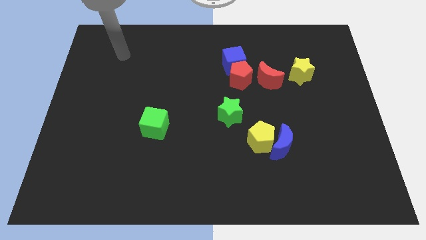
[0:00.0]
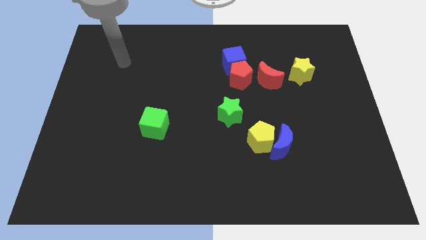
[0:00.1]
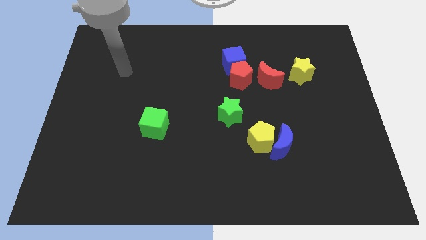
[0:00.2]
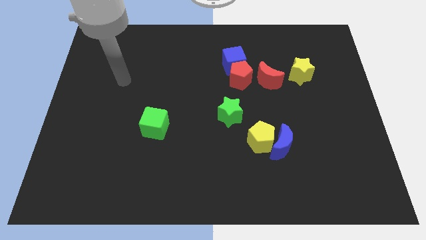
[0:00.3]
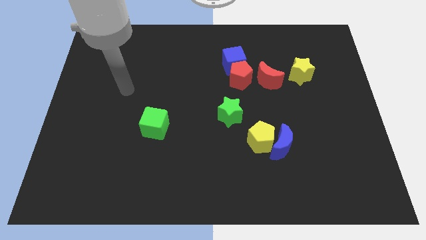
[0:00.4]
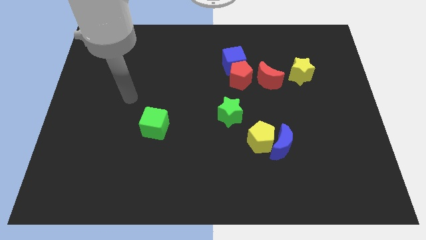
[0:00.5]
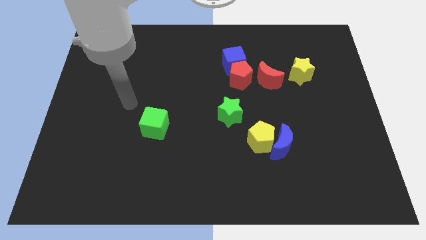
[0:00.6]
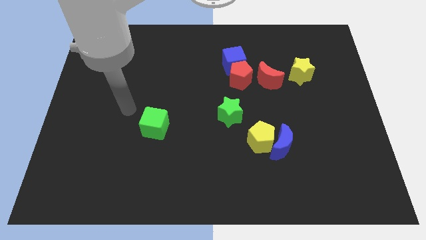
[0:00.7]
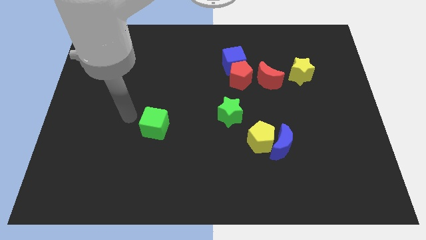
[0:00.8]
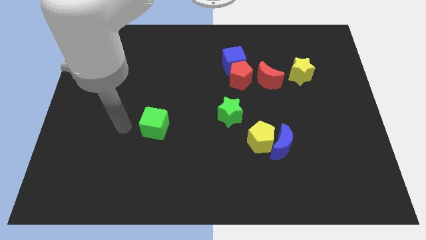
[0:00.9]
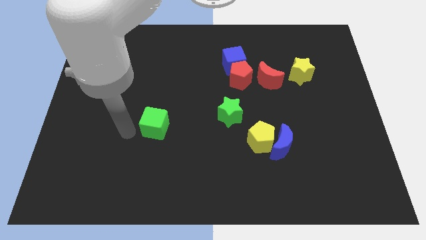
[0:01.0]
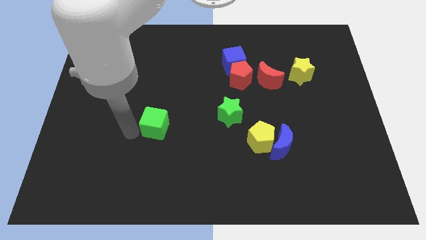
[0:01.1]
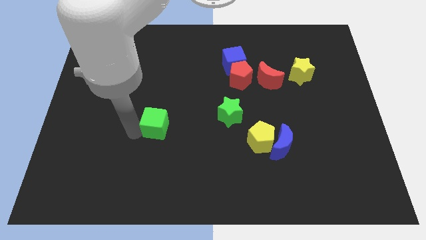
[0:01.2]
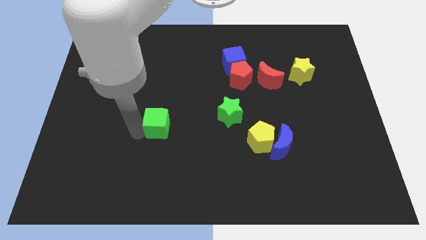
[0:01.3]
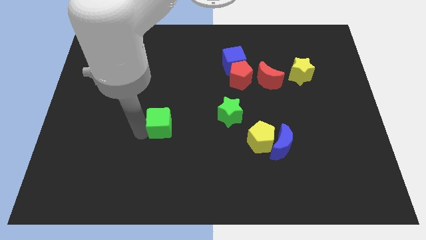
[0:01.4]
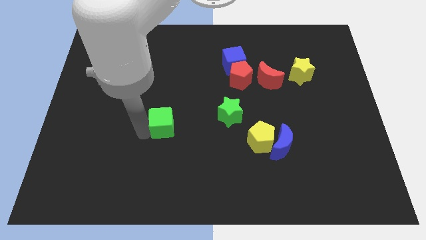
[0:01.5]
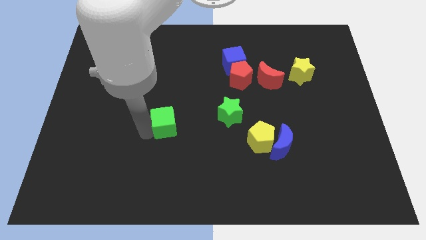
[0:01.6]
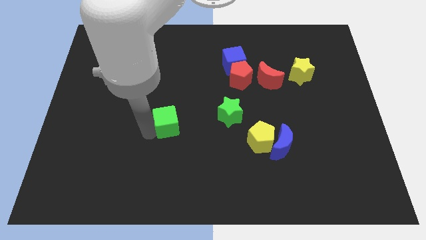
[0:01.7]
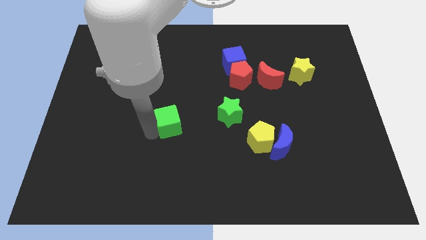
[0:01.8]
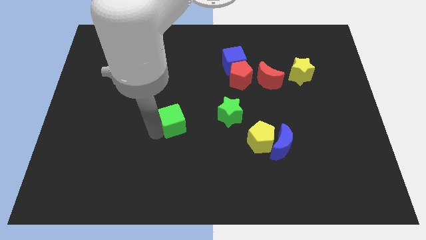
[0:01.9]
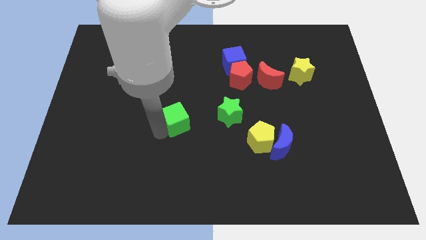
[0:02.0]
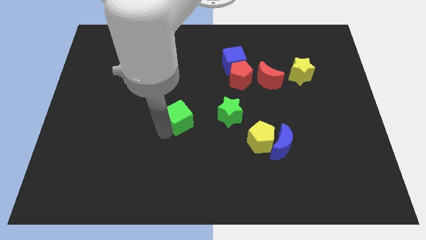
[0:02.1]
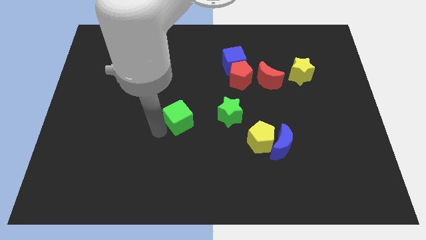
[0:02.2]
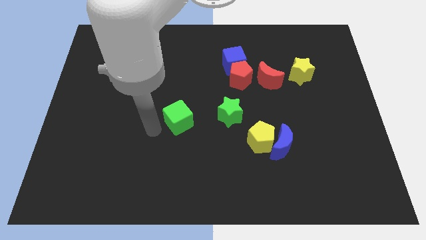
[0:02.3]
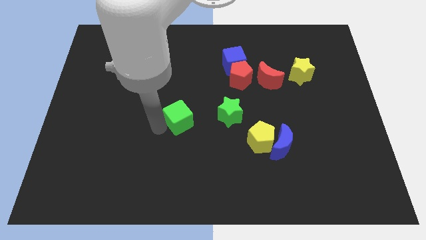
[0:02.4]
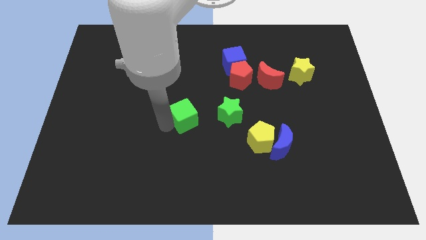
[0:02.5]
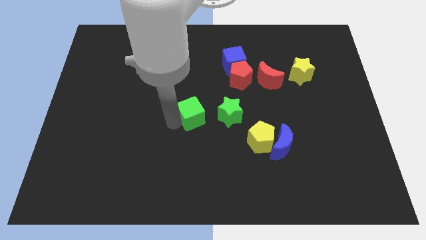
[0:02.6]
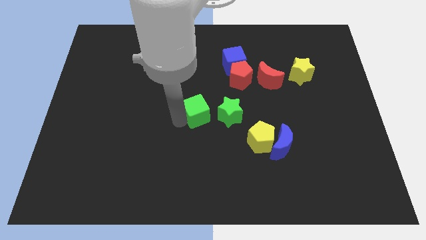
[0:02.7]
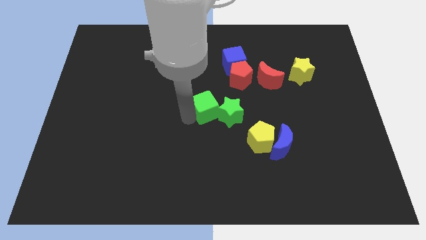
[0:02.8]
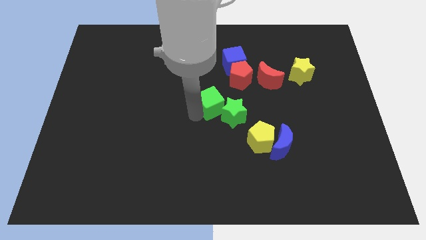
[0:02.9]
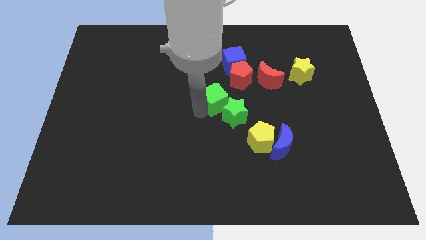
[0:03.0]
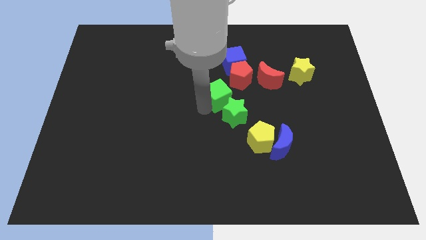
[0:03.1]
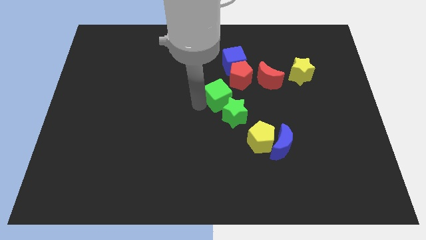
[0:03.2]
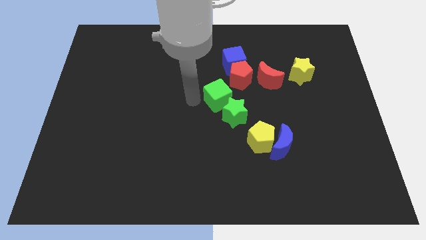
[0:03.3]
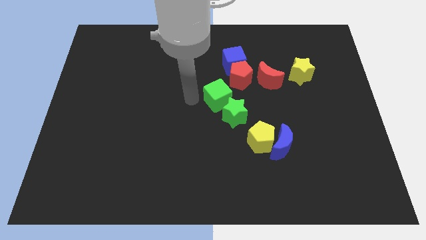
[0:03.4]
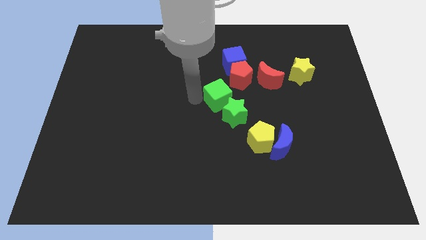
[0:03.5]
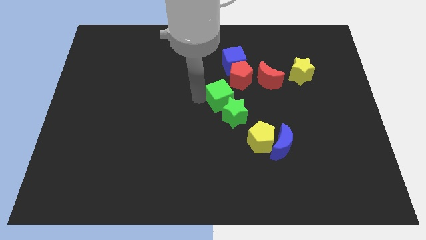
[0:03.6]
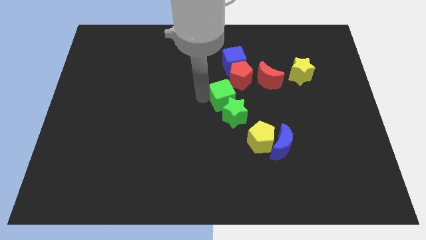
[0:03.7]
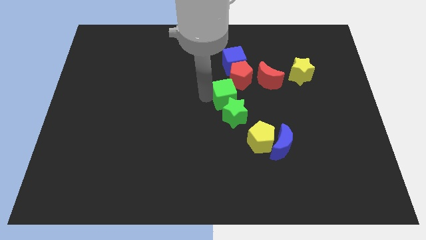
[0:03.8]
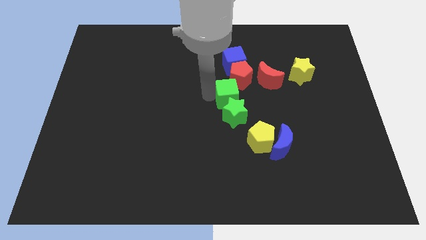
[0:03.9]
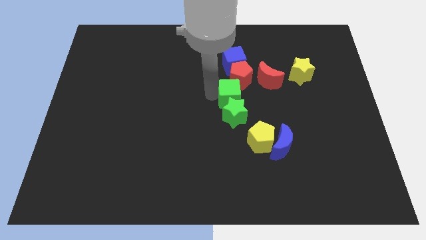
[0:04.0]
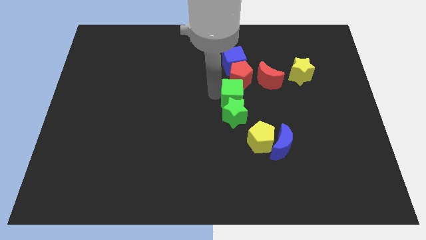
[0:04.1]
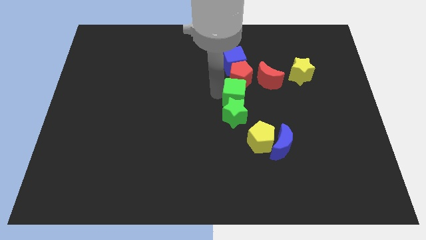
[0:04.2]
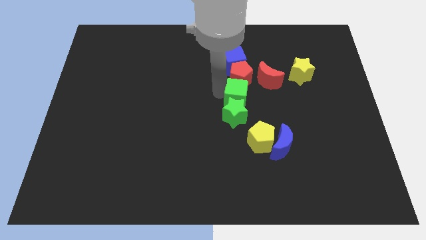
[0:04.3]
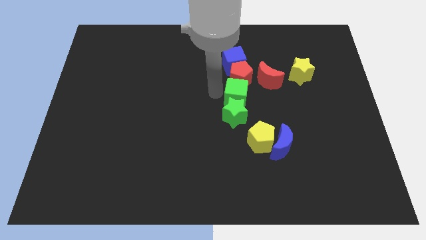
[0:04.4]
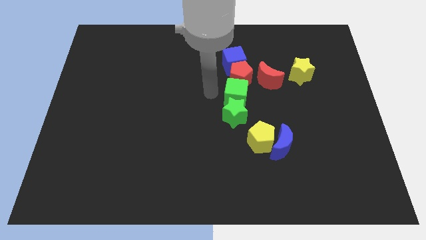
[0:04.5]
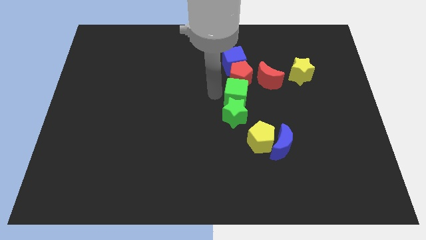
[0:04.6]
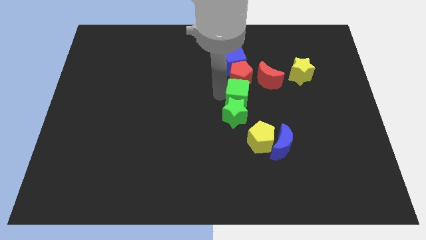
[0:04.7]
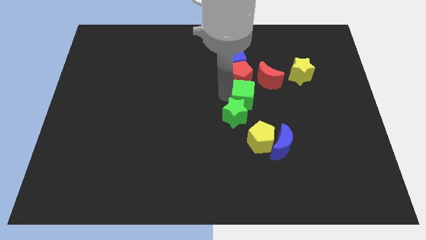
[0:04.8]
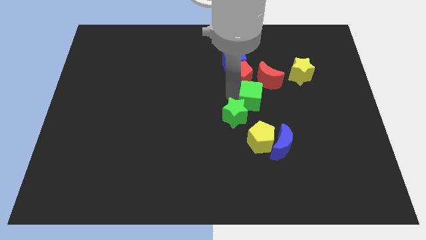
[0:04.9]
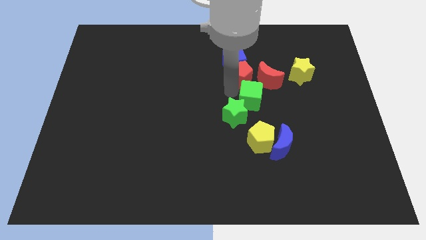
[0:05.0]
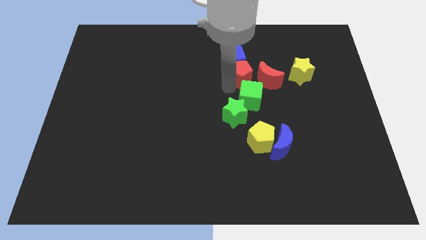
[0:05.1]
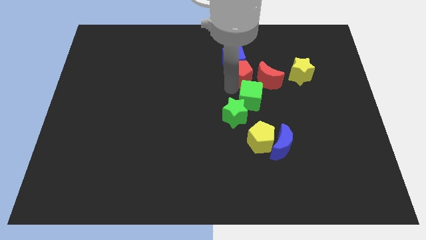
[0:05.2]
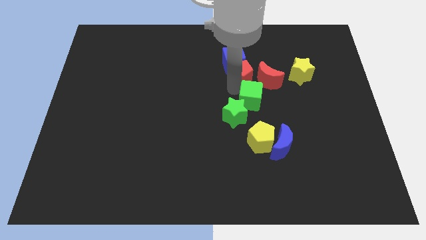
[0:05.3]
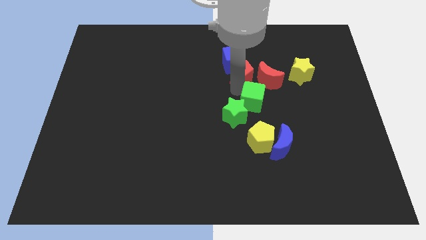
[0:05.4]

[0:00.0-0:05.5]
push the green cube right

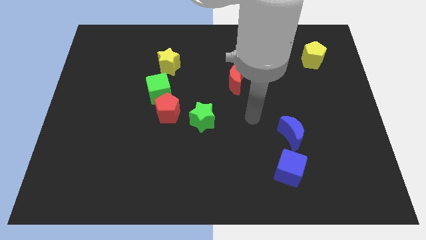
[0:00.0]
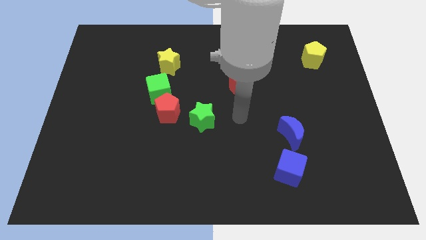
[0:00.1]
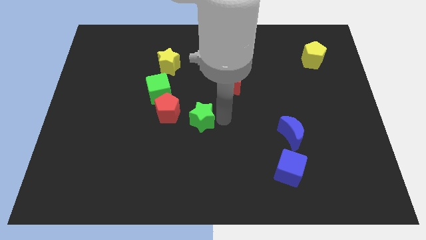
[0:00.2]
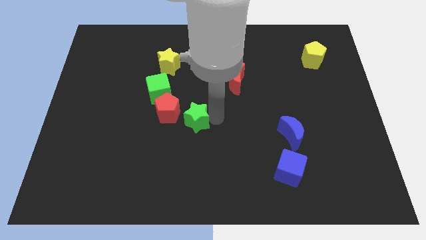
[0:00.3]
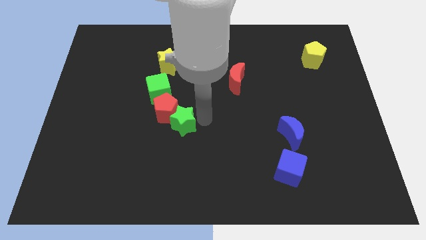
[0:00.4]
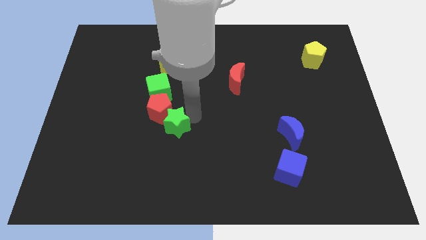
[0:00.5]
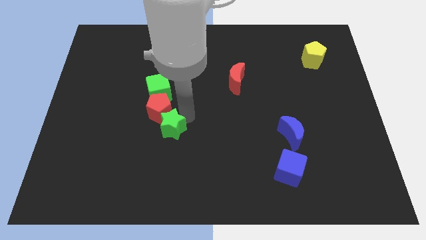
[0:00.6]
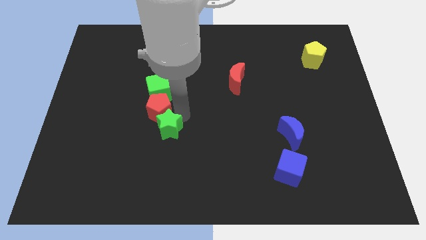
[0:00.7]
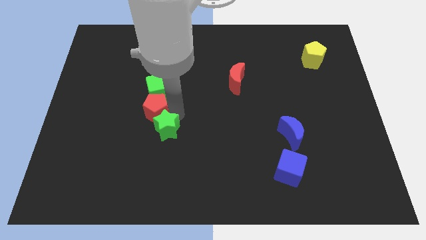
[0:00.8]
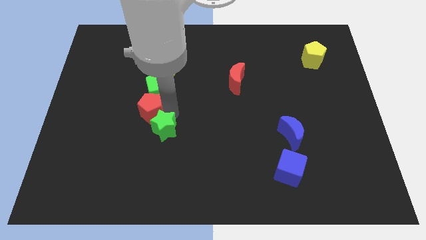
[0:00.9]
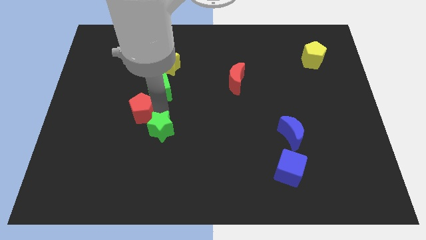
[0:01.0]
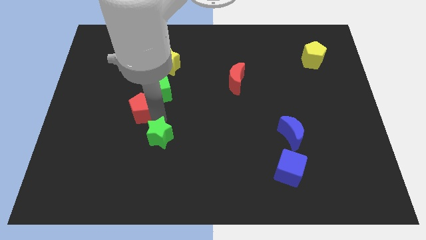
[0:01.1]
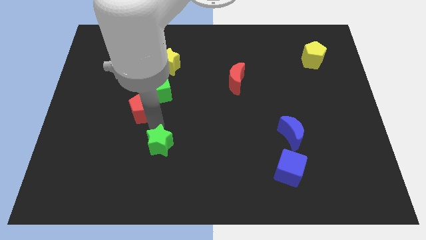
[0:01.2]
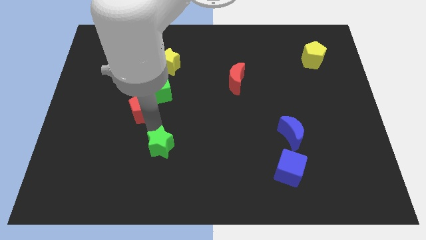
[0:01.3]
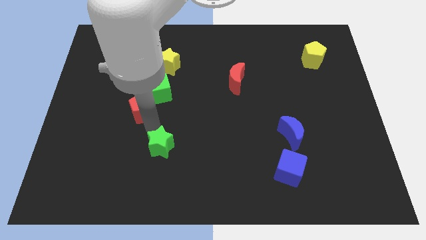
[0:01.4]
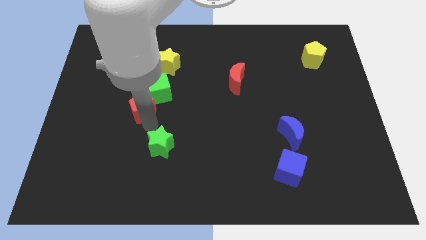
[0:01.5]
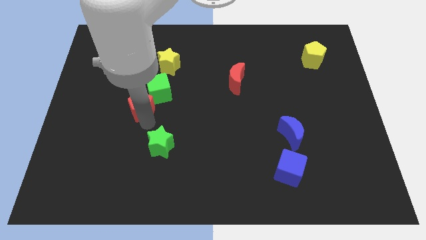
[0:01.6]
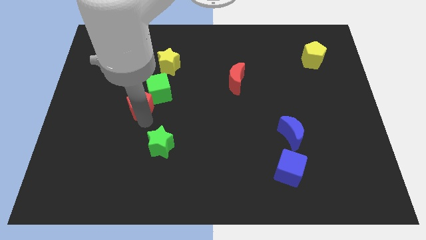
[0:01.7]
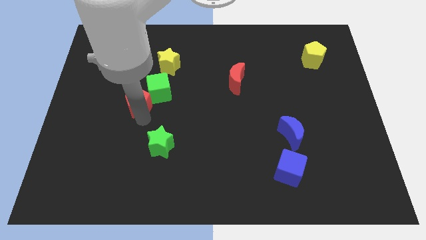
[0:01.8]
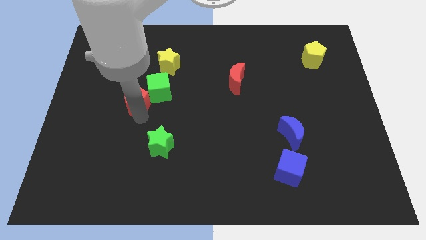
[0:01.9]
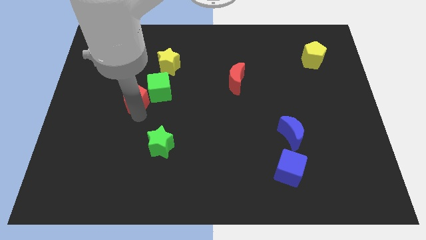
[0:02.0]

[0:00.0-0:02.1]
push the red pentagon up and left slightly
